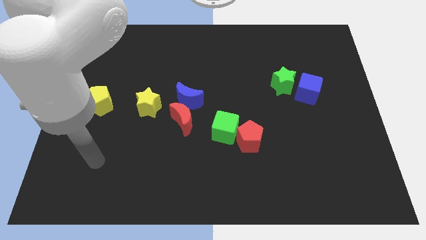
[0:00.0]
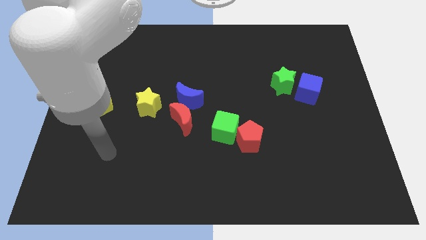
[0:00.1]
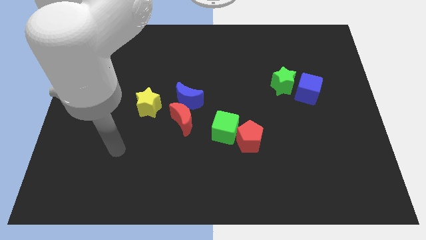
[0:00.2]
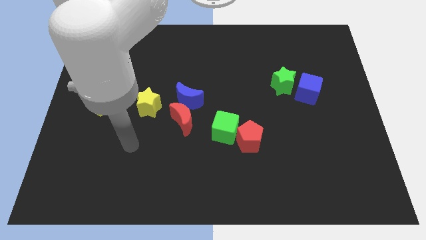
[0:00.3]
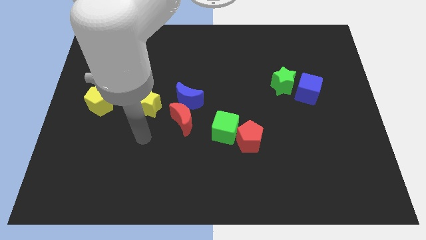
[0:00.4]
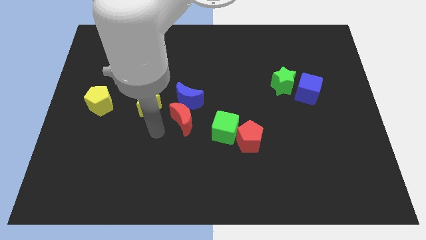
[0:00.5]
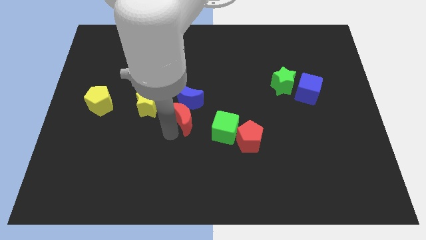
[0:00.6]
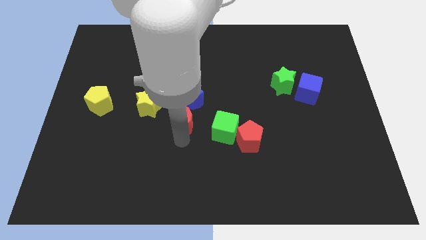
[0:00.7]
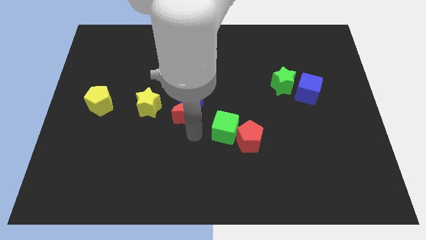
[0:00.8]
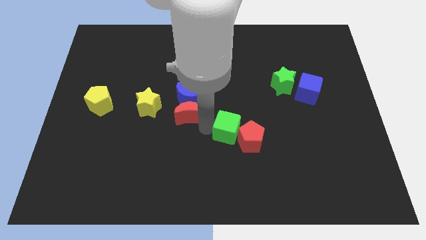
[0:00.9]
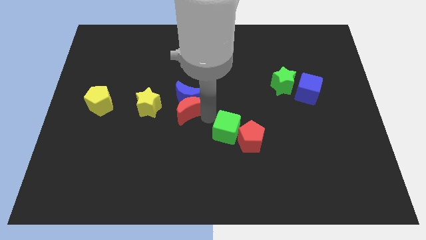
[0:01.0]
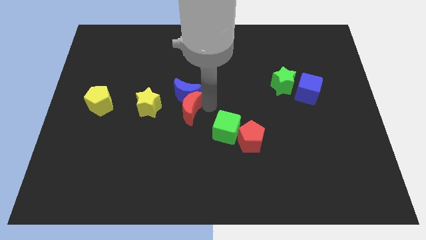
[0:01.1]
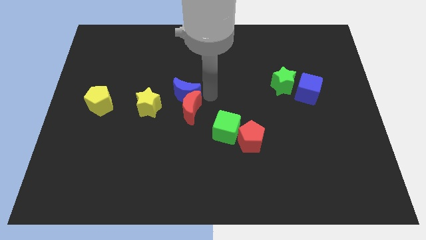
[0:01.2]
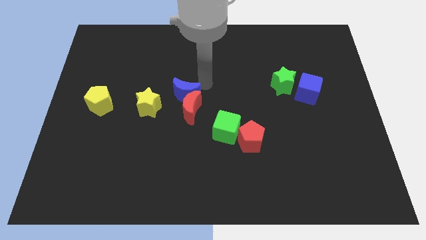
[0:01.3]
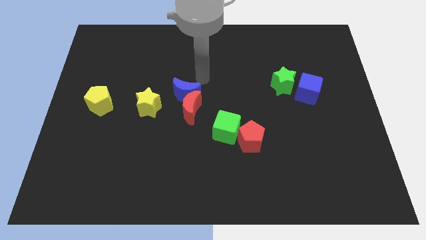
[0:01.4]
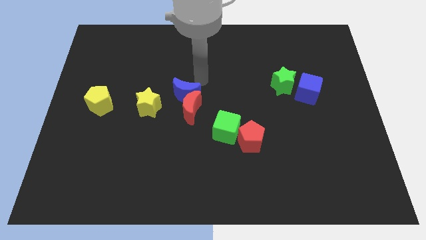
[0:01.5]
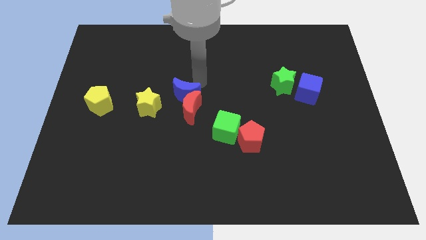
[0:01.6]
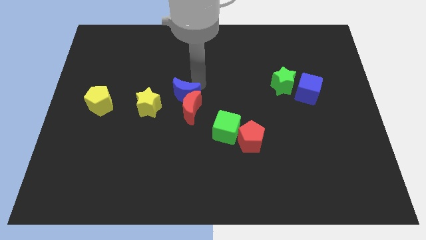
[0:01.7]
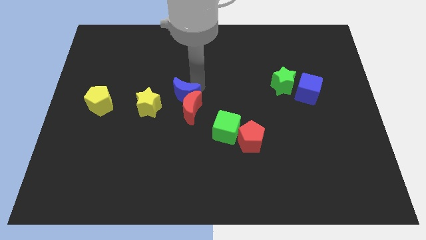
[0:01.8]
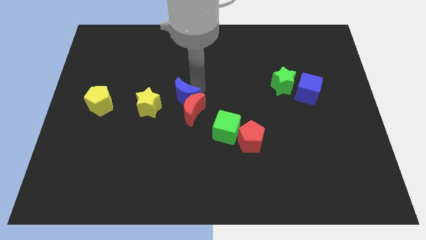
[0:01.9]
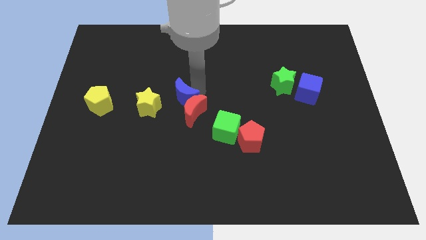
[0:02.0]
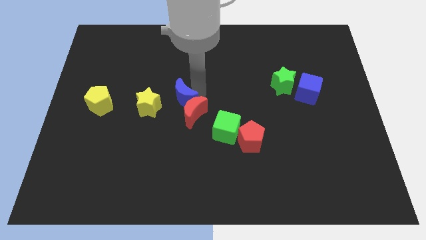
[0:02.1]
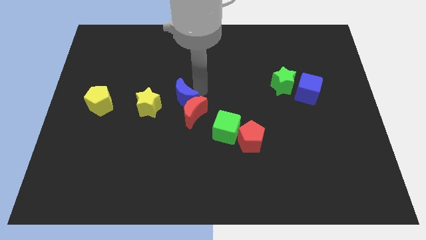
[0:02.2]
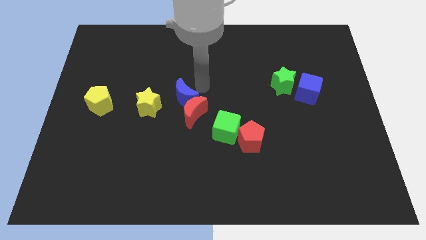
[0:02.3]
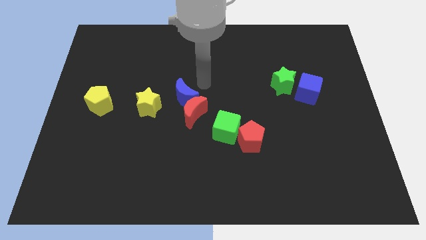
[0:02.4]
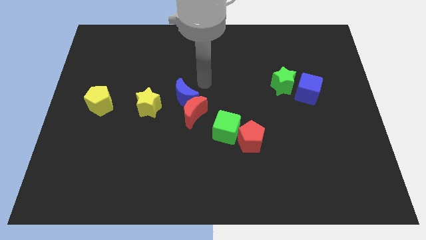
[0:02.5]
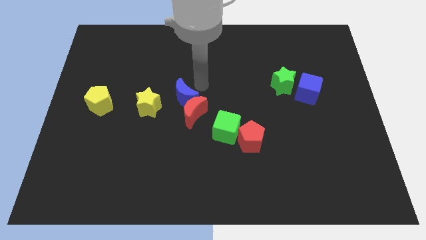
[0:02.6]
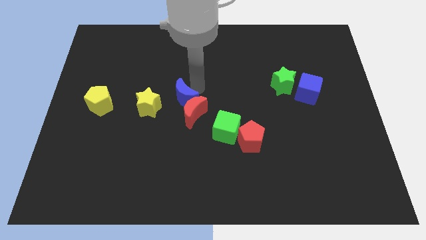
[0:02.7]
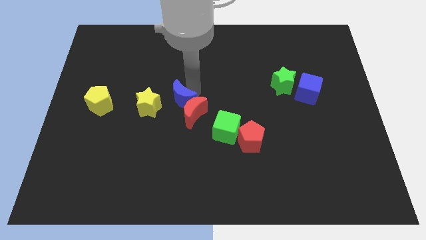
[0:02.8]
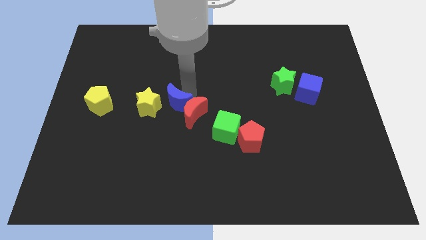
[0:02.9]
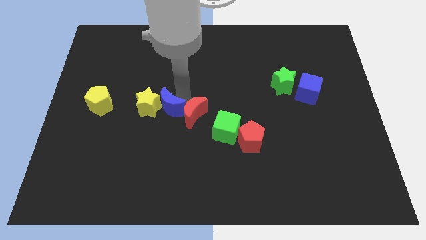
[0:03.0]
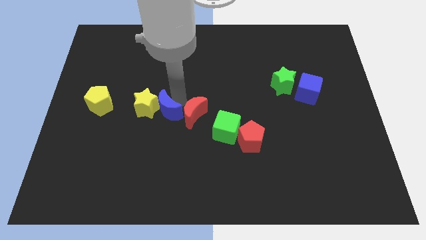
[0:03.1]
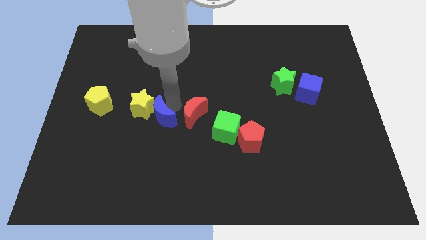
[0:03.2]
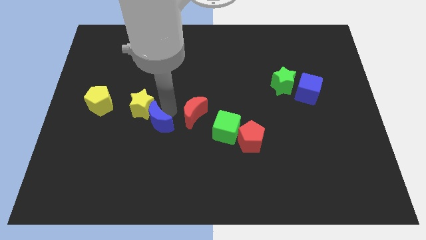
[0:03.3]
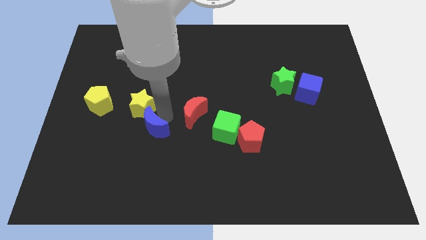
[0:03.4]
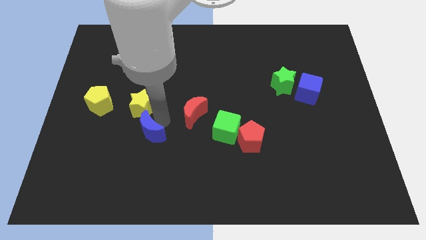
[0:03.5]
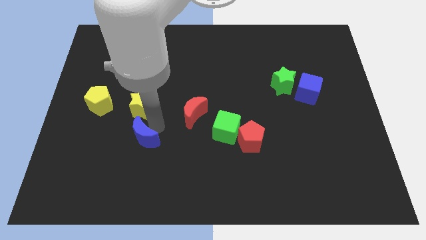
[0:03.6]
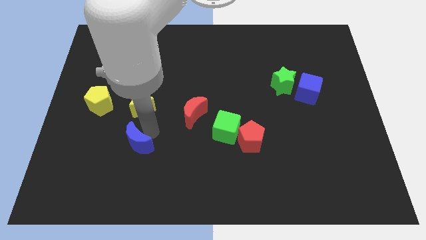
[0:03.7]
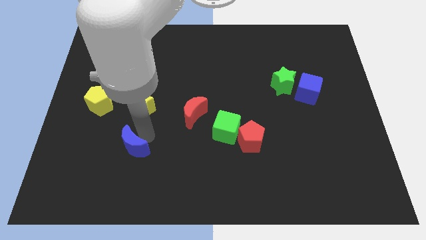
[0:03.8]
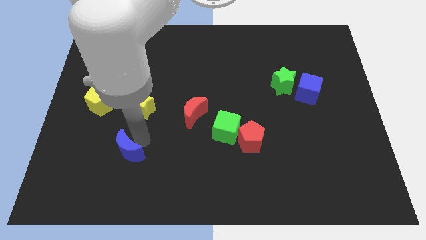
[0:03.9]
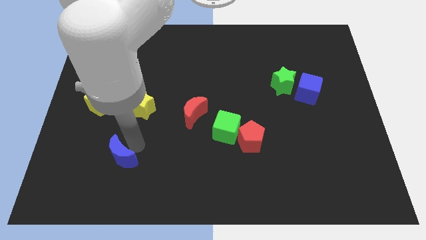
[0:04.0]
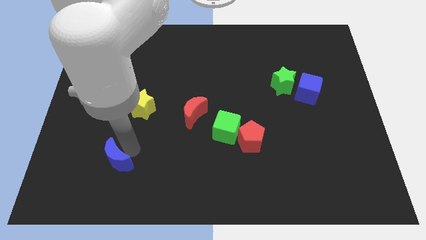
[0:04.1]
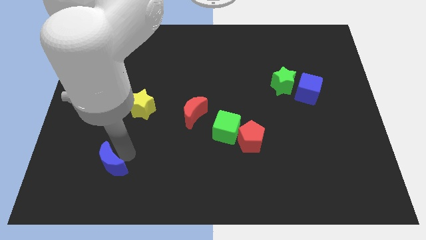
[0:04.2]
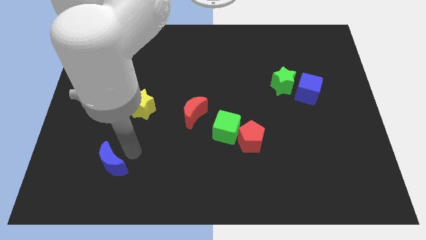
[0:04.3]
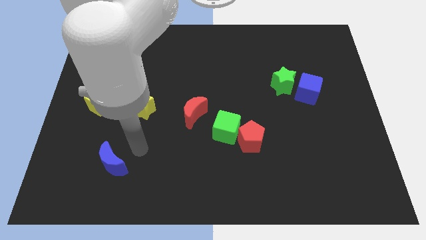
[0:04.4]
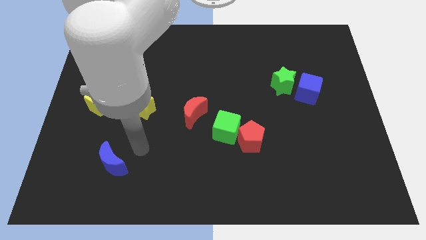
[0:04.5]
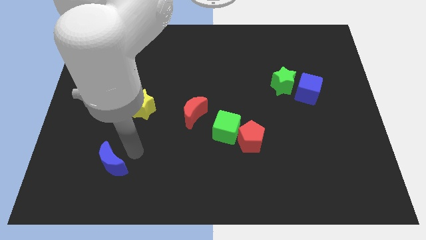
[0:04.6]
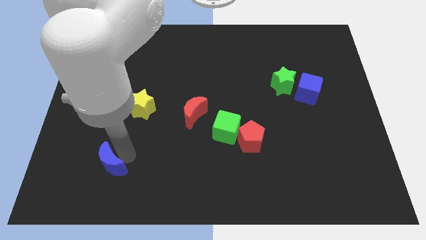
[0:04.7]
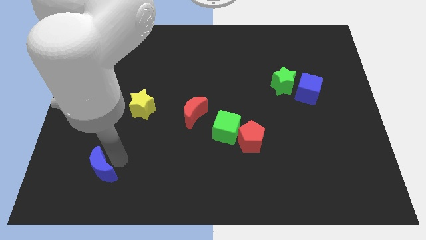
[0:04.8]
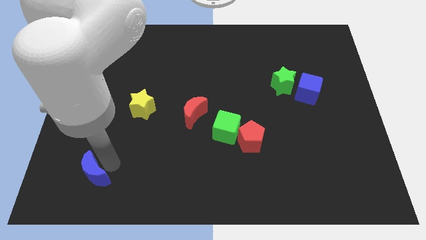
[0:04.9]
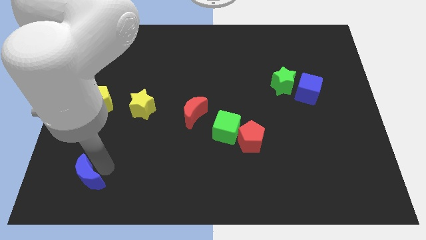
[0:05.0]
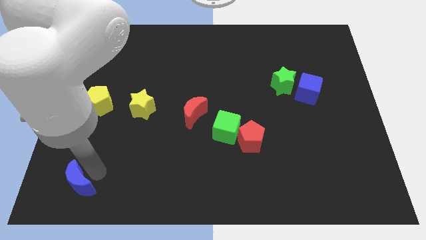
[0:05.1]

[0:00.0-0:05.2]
slide the blue moon to the bottom left of the board

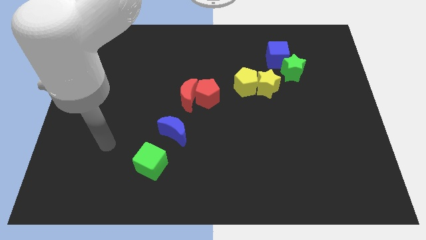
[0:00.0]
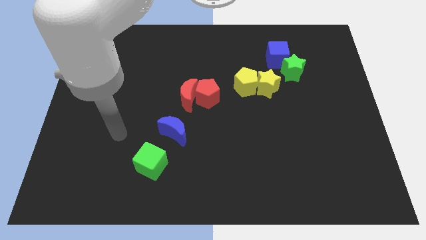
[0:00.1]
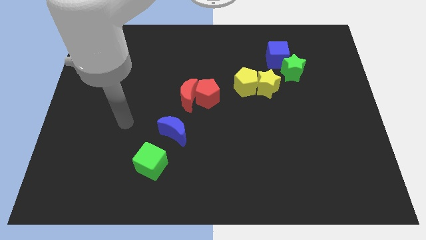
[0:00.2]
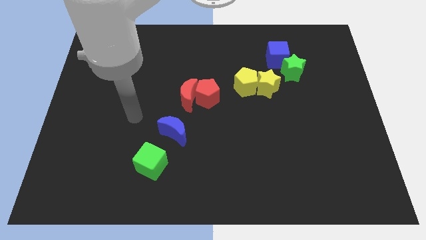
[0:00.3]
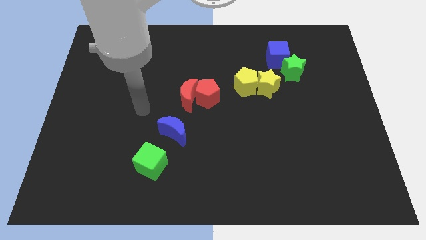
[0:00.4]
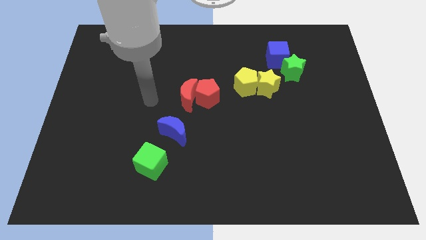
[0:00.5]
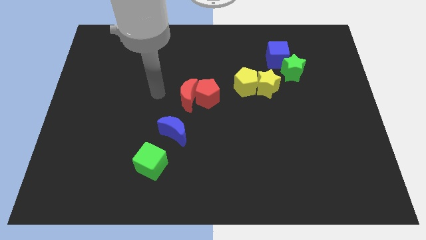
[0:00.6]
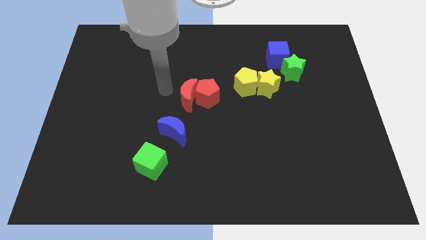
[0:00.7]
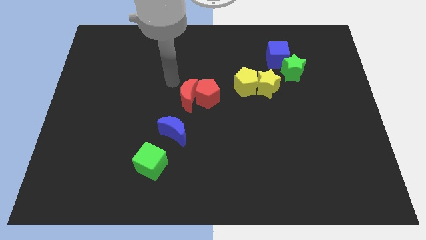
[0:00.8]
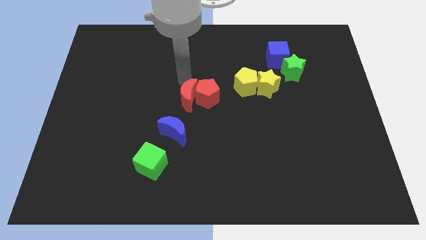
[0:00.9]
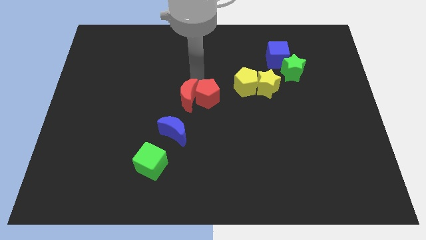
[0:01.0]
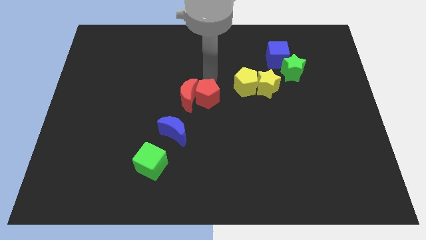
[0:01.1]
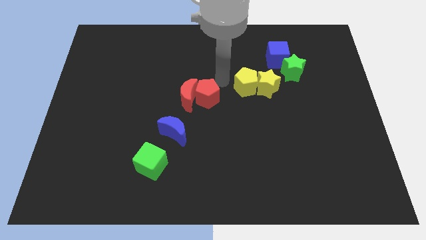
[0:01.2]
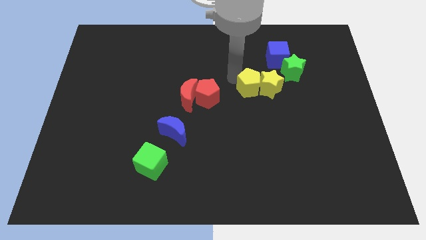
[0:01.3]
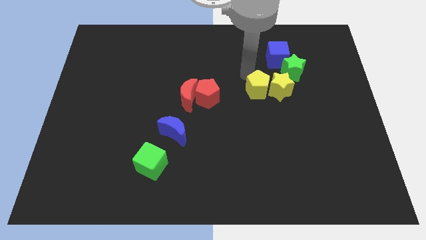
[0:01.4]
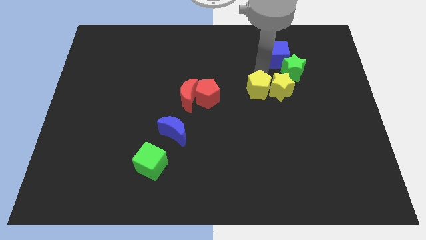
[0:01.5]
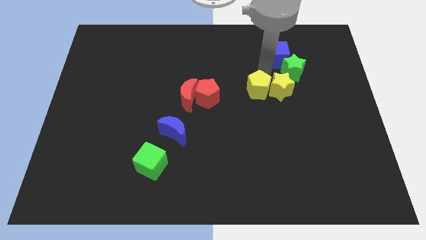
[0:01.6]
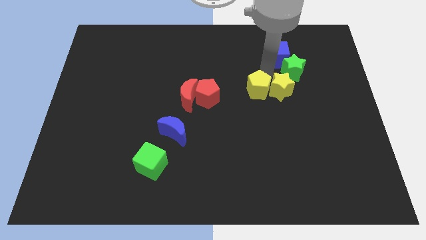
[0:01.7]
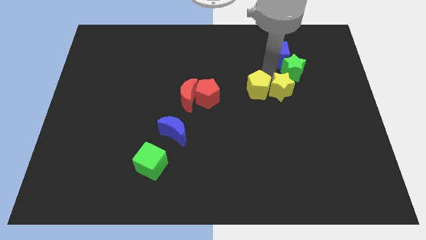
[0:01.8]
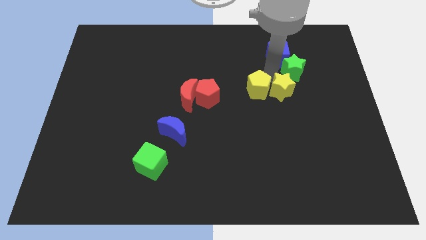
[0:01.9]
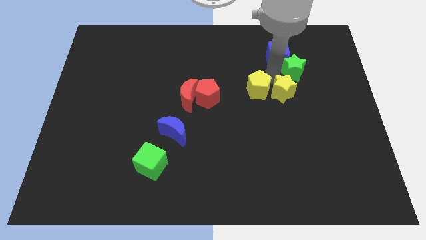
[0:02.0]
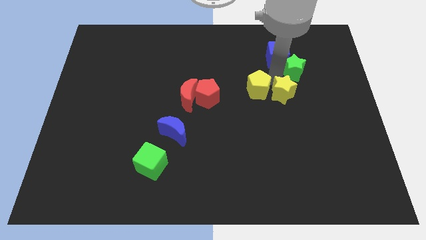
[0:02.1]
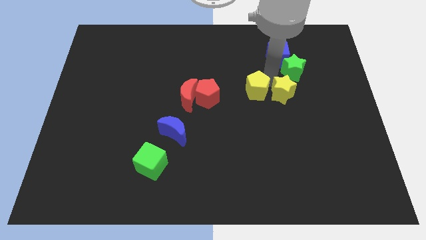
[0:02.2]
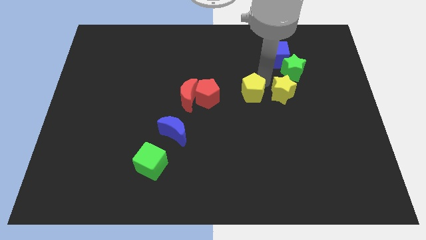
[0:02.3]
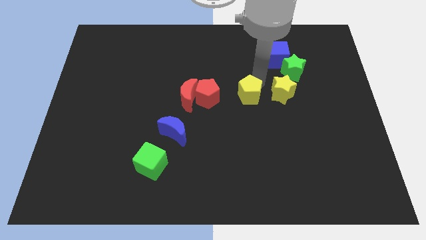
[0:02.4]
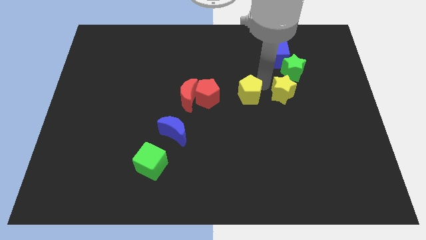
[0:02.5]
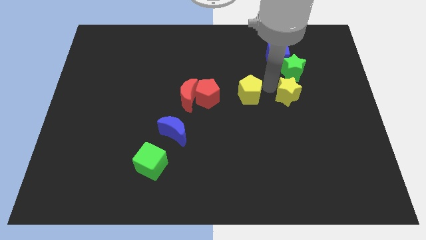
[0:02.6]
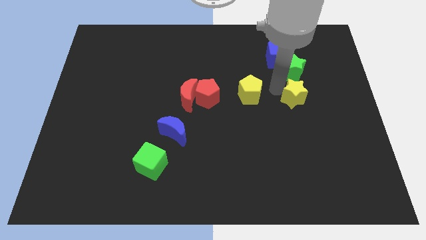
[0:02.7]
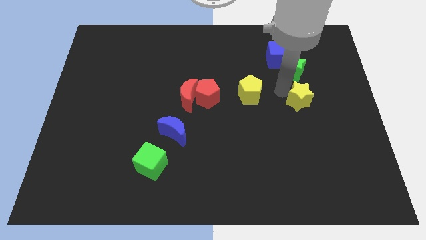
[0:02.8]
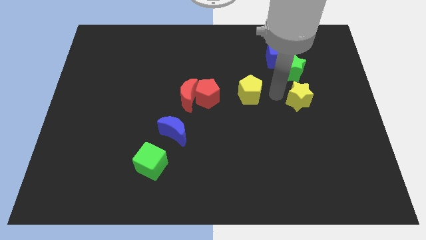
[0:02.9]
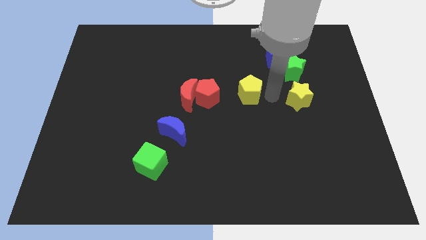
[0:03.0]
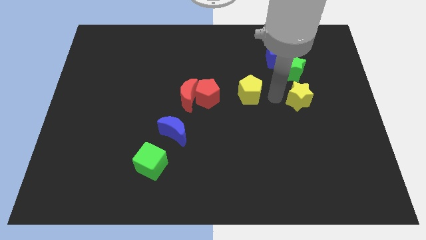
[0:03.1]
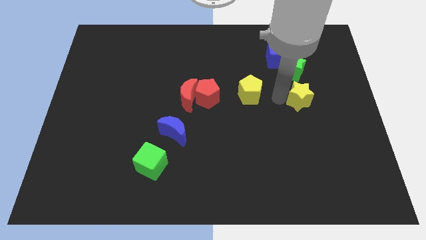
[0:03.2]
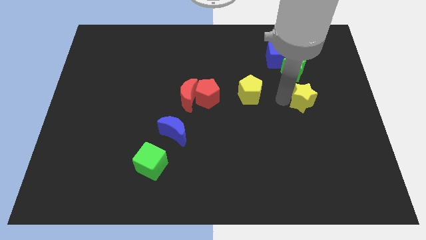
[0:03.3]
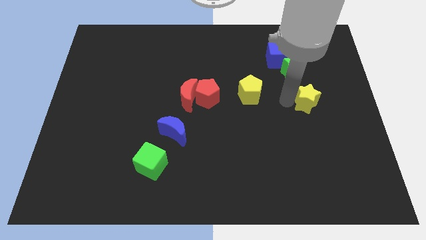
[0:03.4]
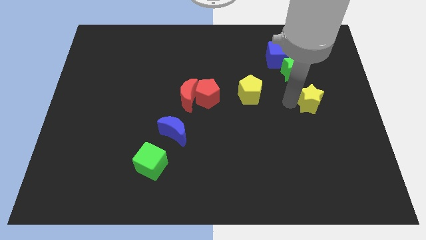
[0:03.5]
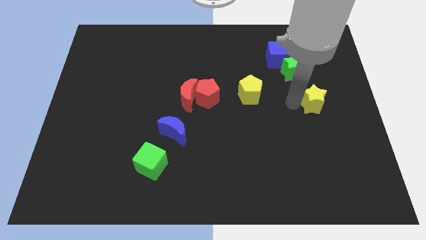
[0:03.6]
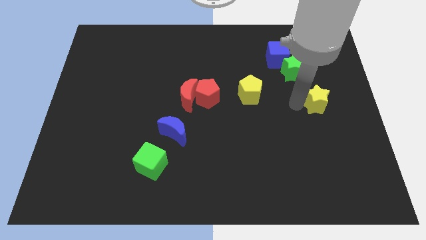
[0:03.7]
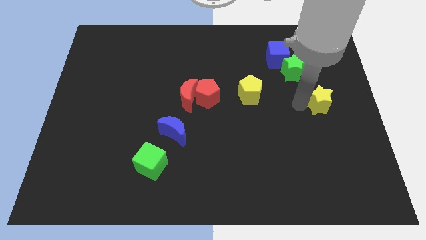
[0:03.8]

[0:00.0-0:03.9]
slide the yellow star to the right side of the board
